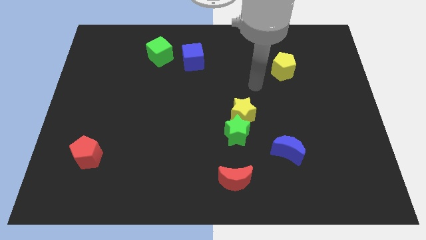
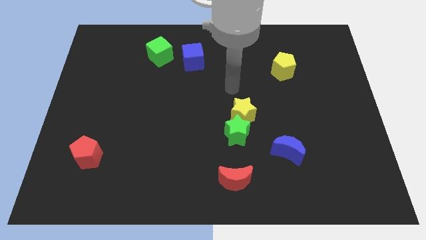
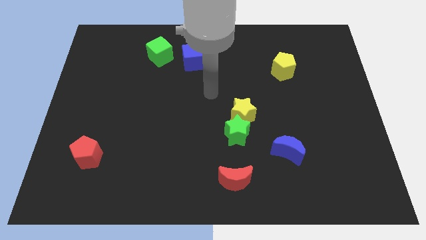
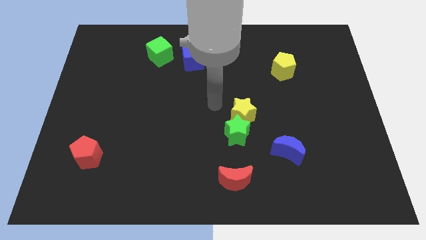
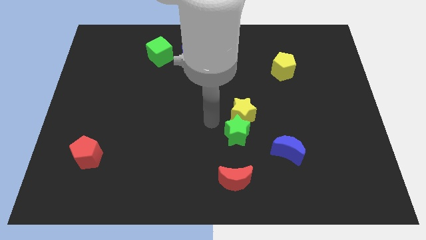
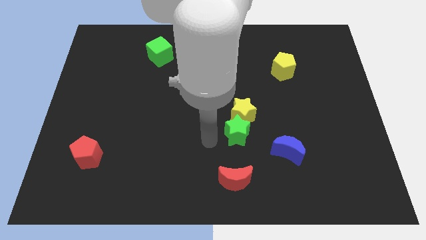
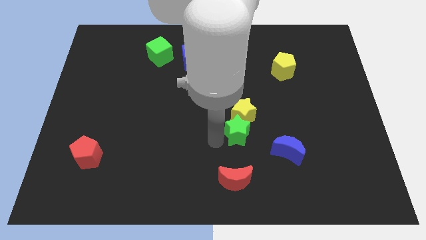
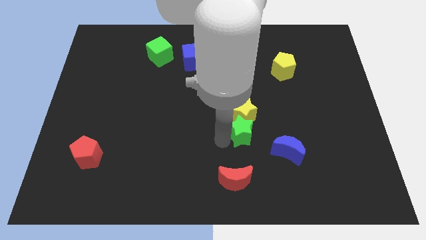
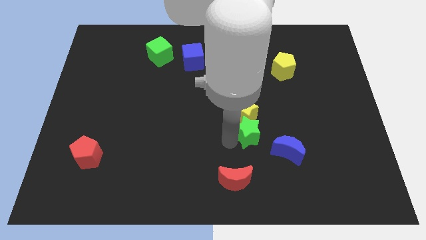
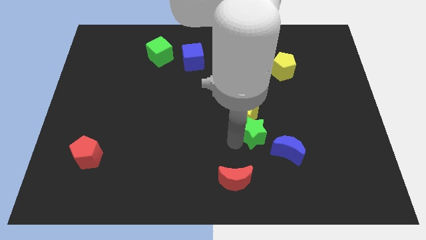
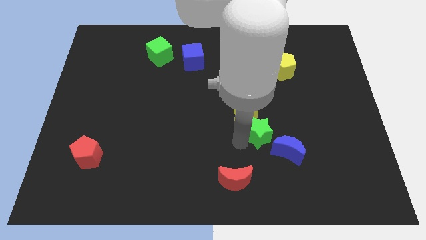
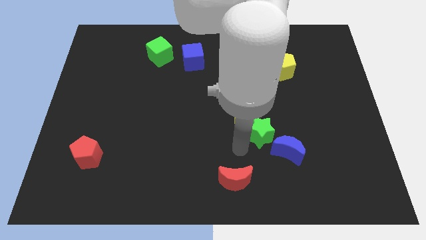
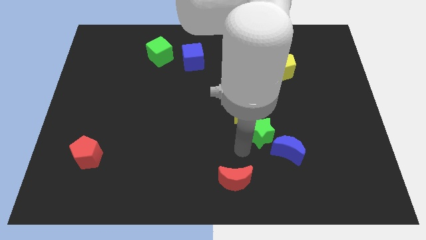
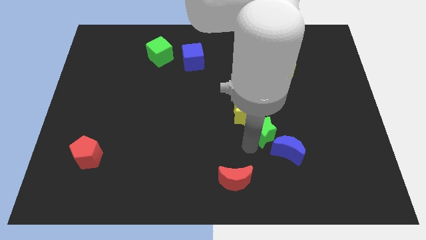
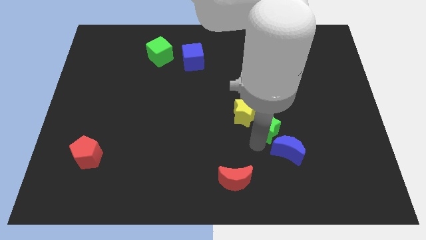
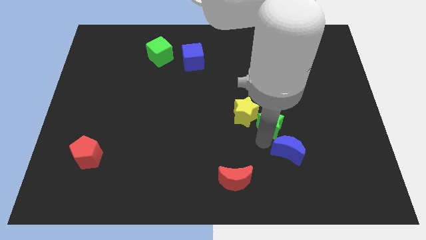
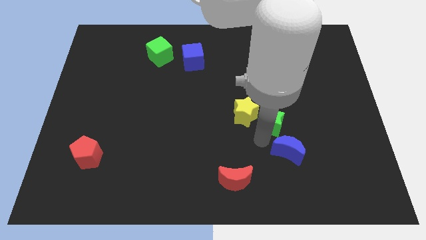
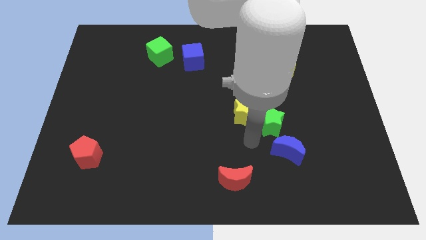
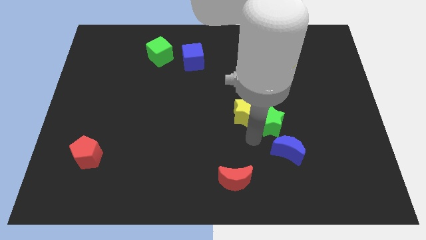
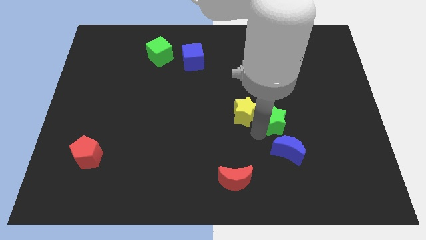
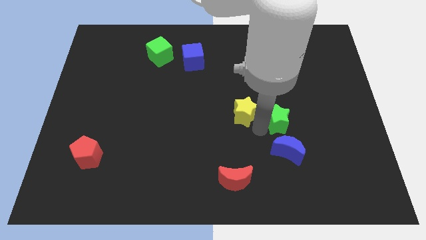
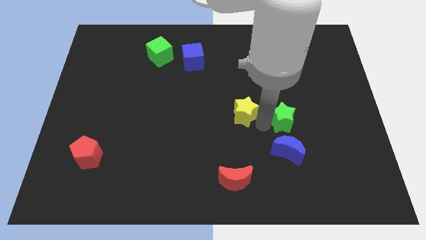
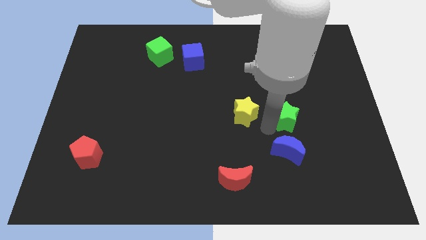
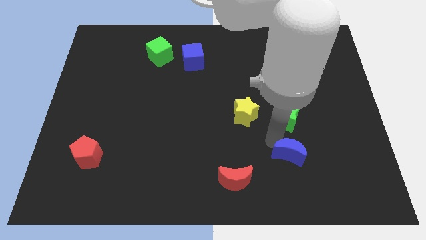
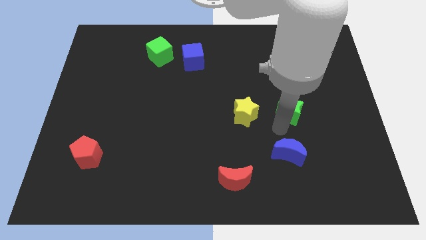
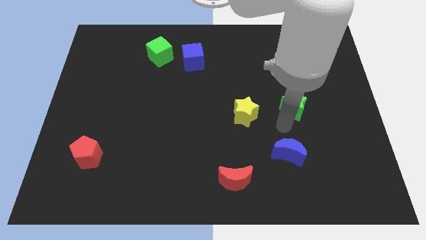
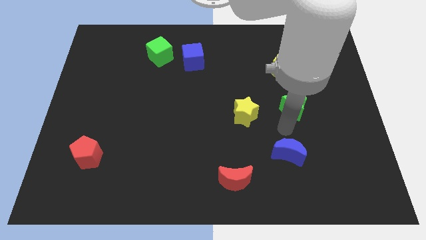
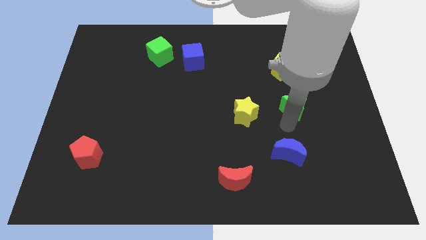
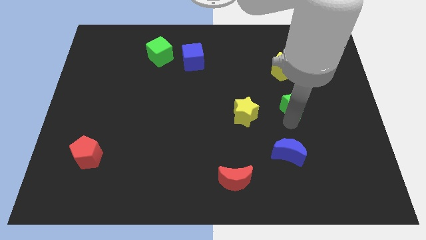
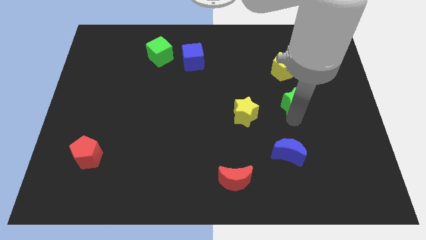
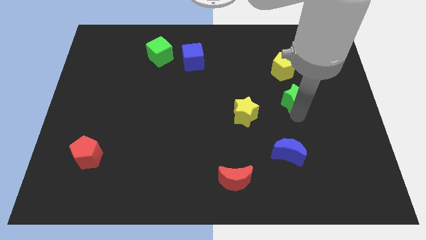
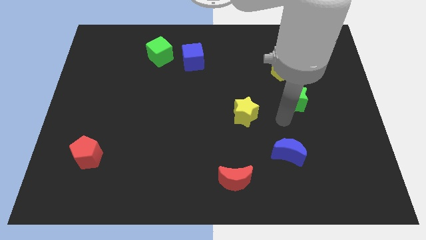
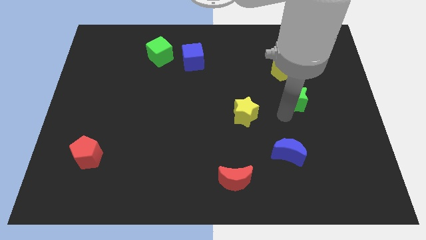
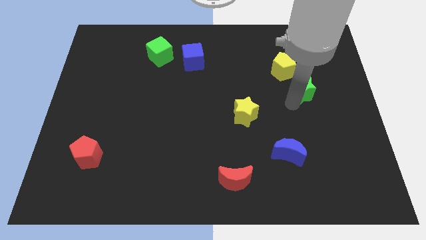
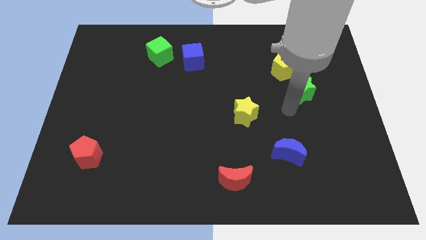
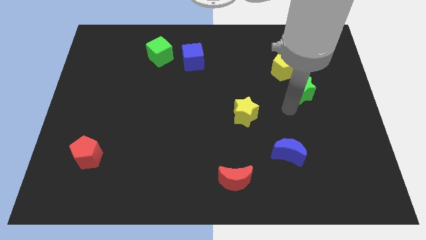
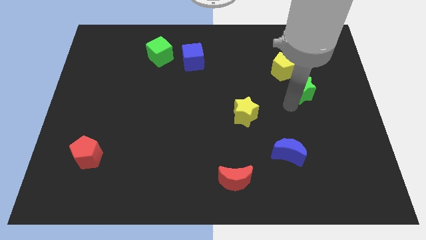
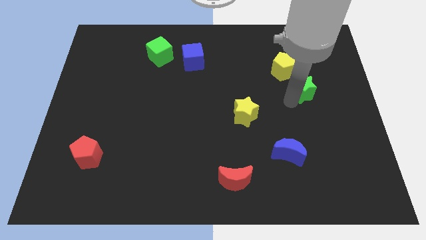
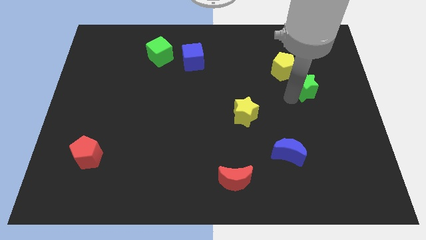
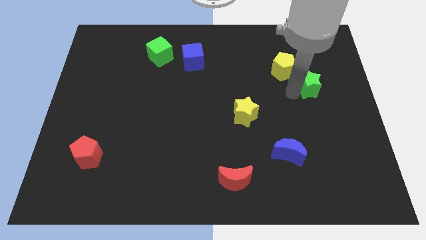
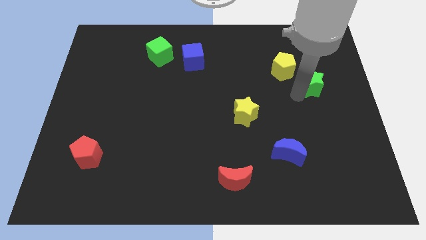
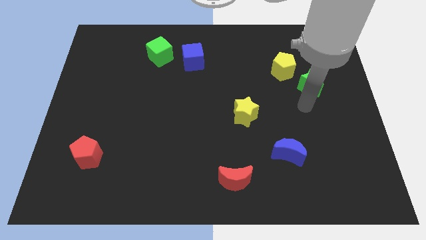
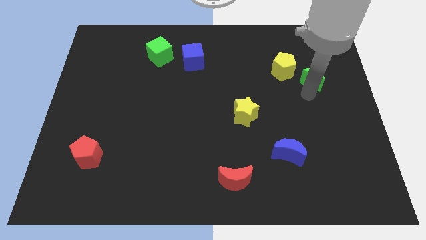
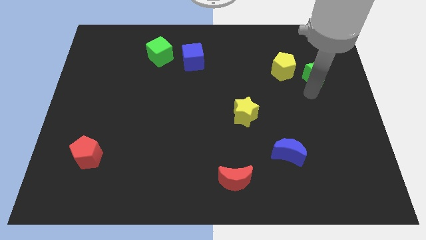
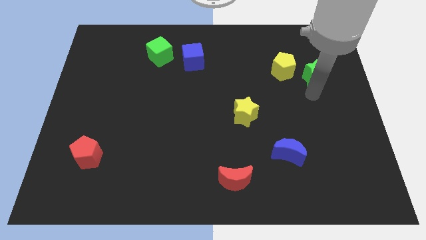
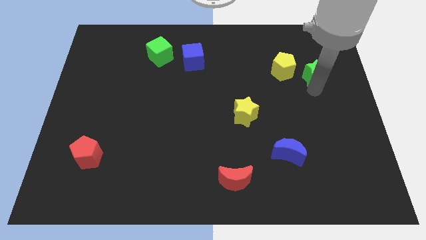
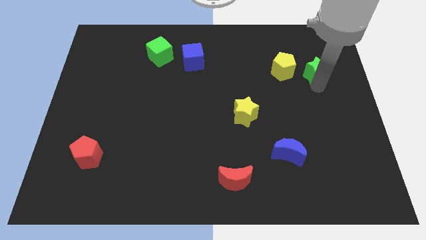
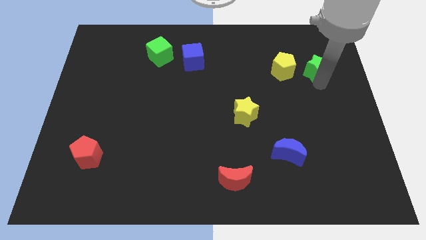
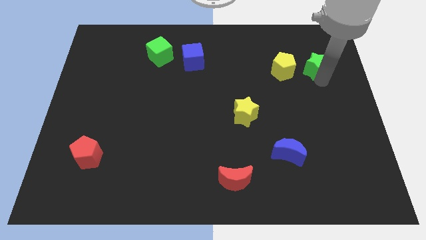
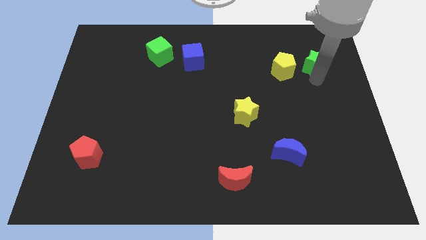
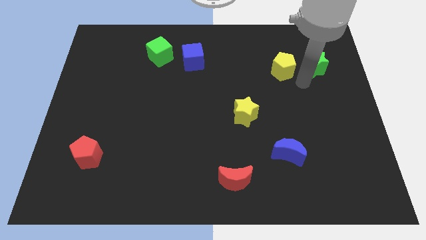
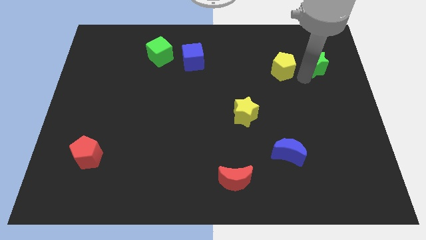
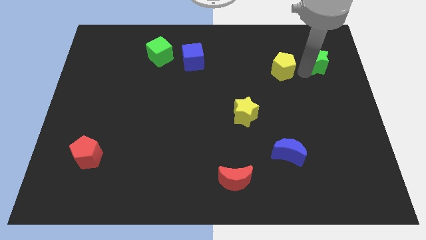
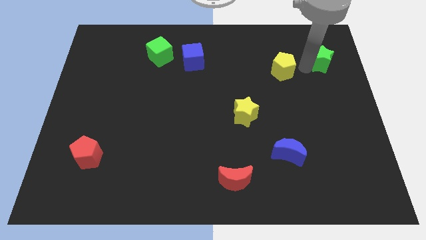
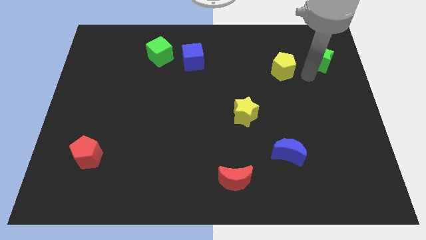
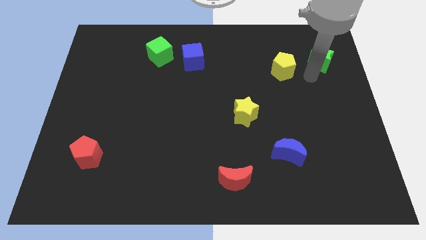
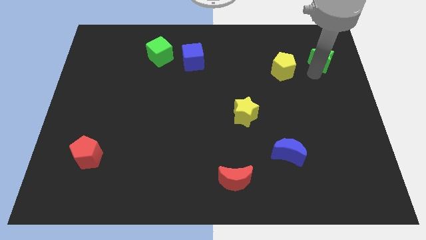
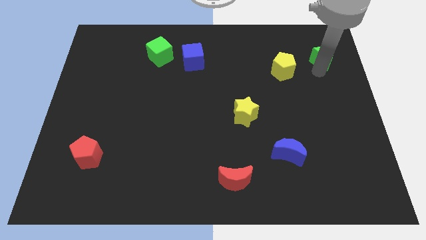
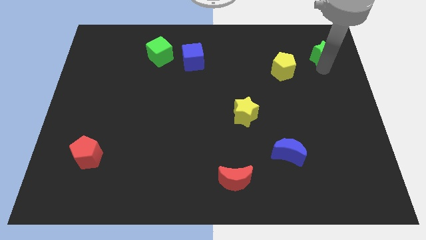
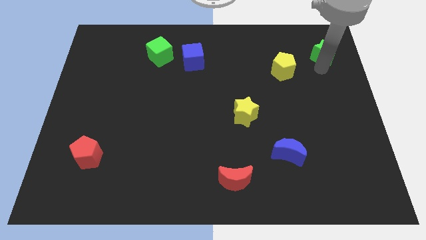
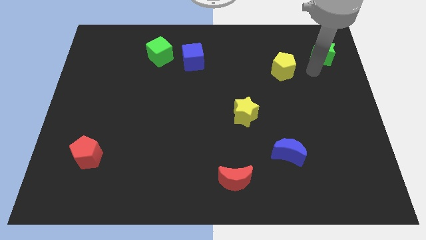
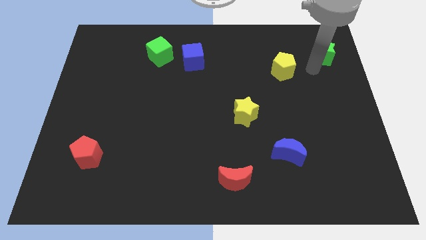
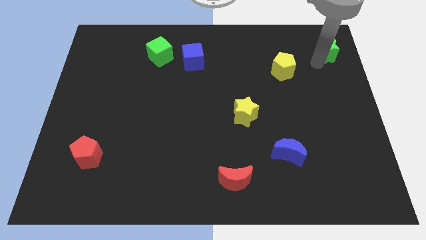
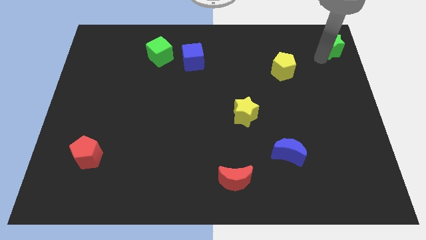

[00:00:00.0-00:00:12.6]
slide the green star to the top right corner
